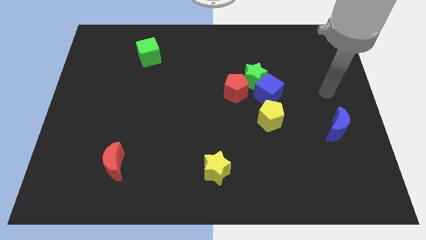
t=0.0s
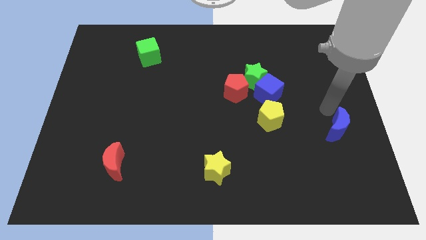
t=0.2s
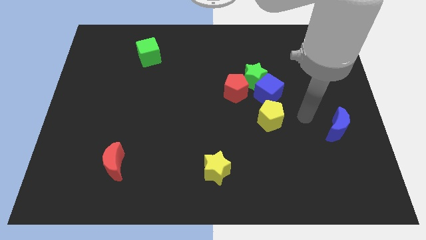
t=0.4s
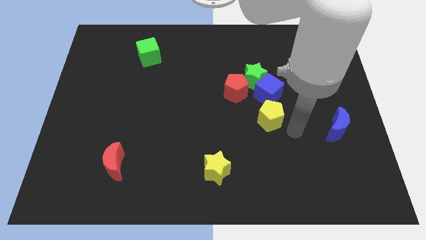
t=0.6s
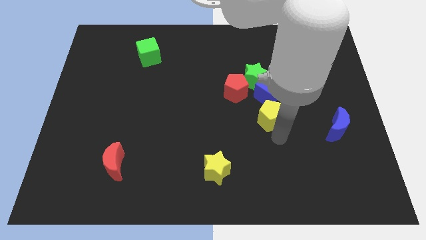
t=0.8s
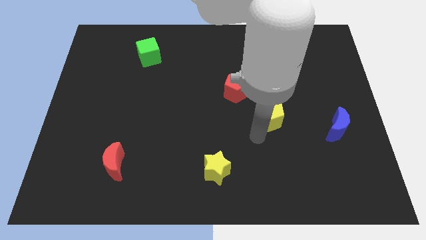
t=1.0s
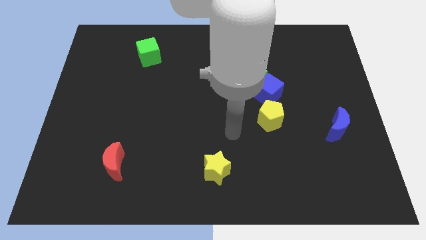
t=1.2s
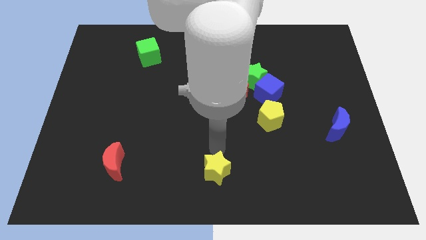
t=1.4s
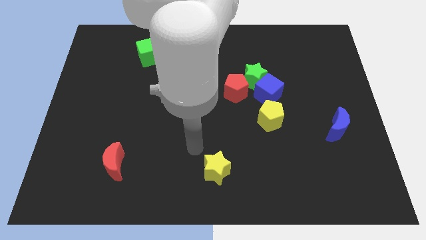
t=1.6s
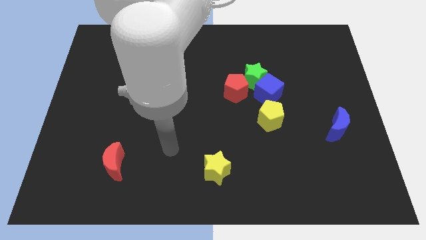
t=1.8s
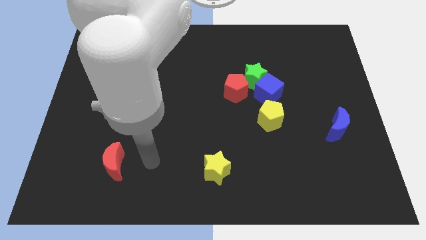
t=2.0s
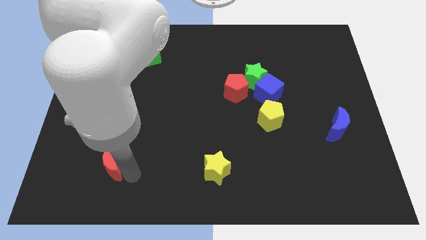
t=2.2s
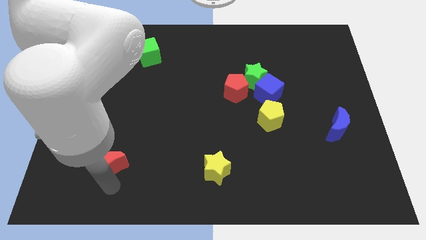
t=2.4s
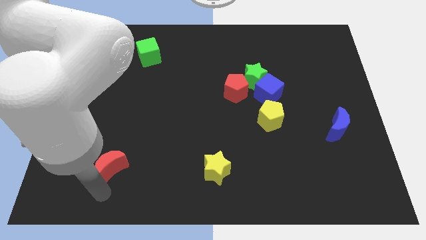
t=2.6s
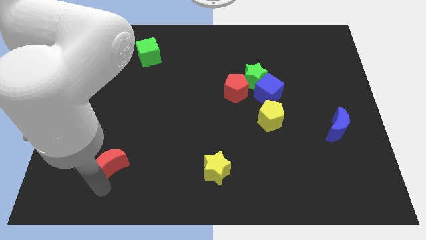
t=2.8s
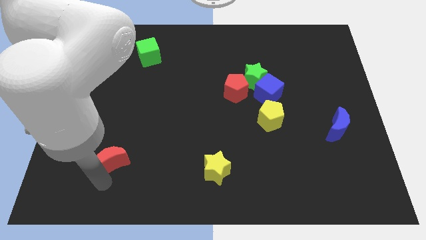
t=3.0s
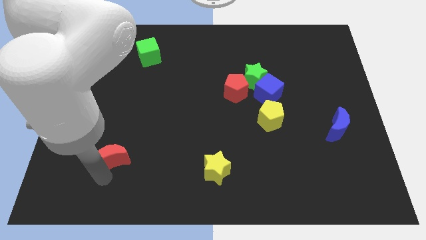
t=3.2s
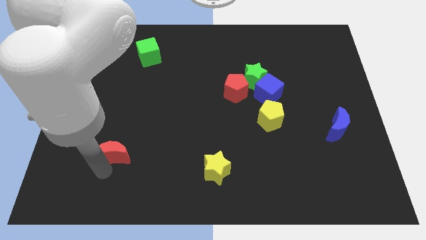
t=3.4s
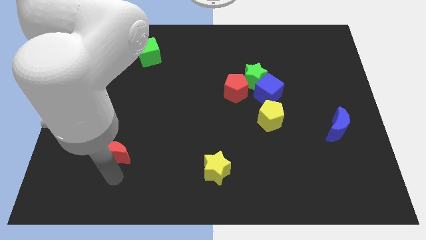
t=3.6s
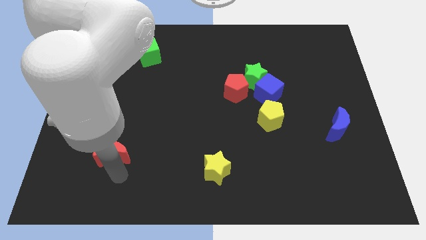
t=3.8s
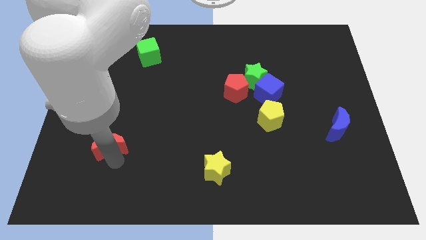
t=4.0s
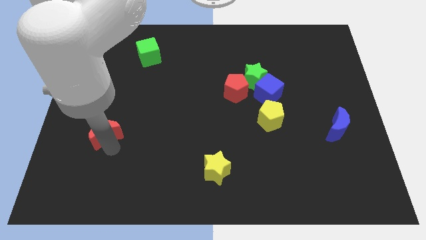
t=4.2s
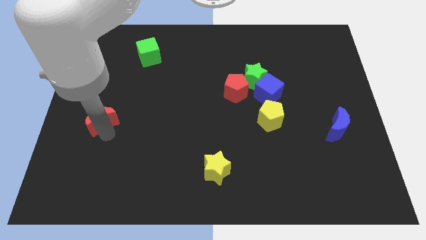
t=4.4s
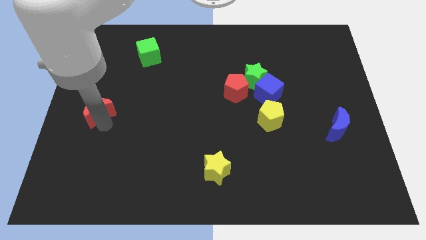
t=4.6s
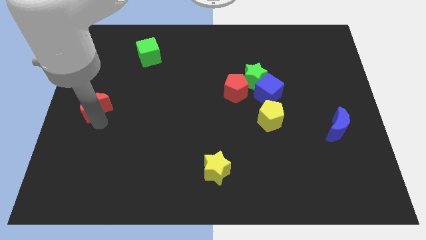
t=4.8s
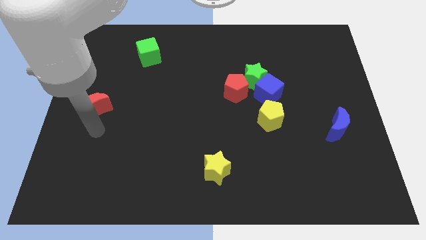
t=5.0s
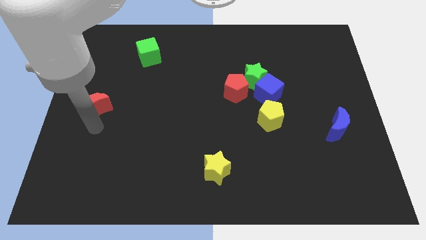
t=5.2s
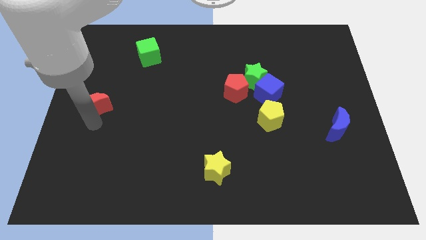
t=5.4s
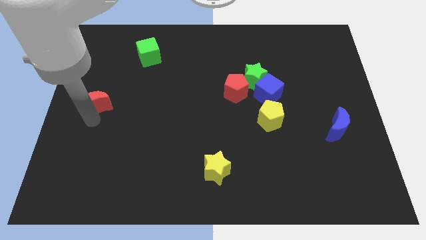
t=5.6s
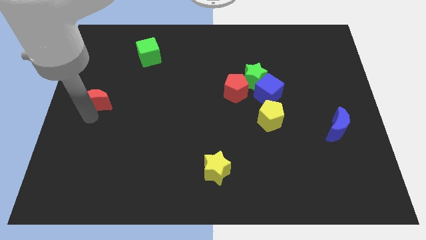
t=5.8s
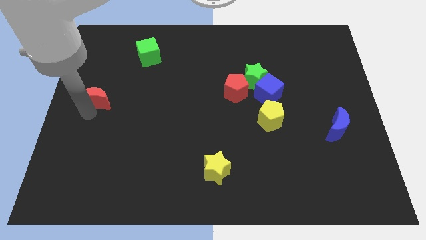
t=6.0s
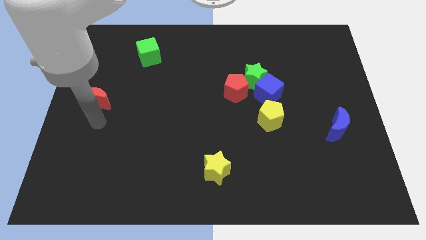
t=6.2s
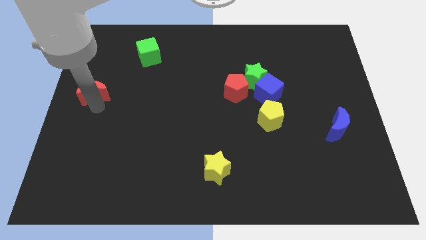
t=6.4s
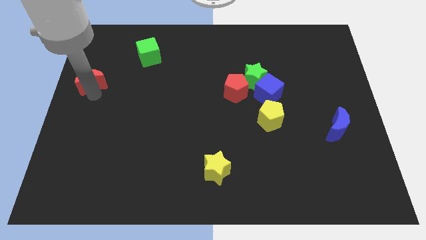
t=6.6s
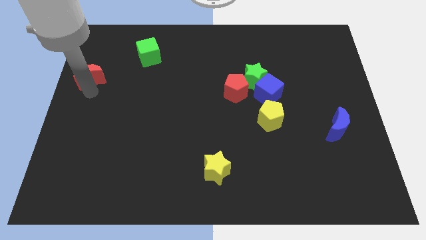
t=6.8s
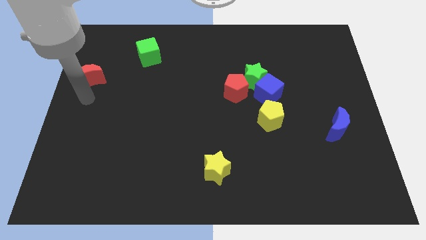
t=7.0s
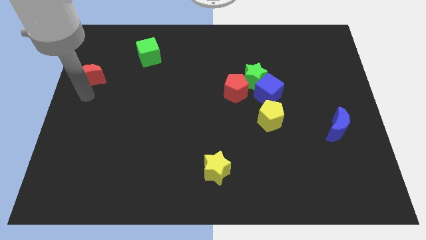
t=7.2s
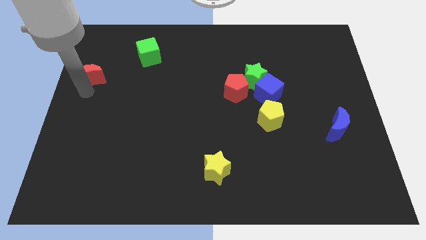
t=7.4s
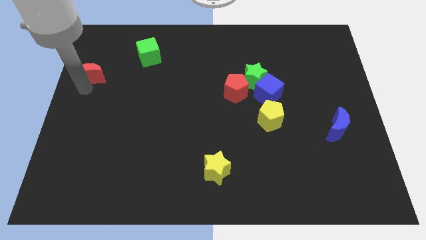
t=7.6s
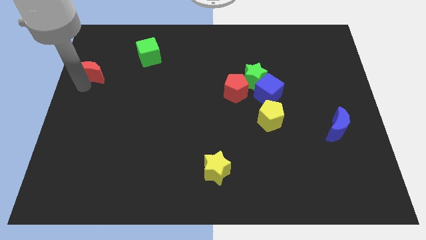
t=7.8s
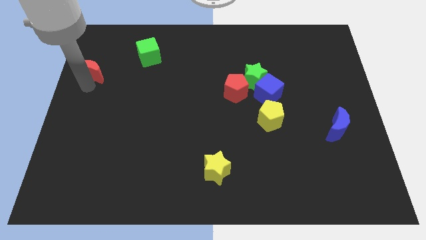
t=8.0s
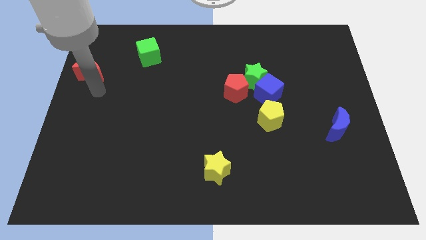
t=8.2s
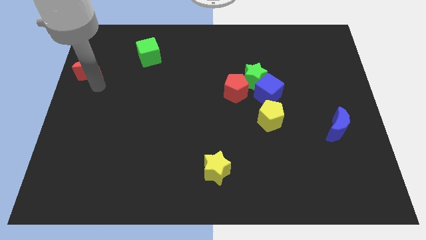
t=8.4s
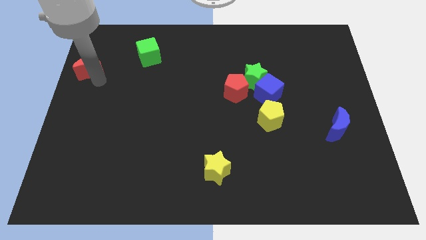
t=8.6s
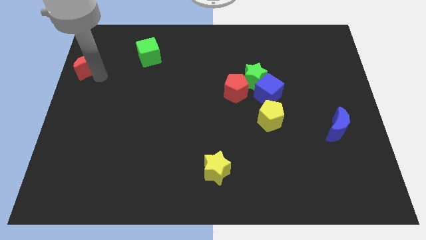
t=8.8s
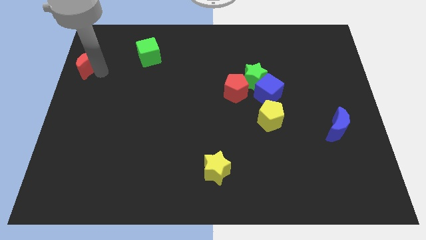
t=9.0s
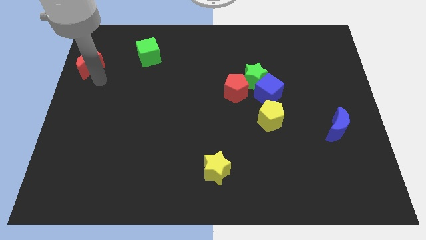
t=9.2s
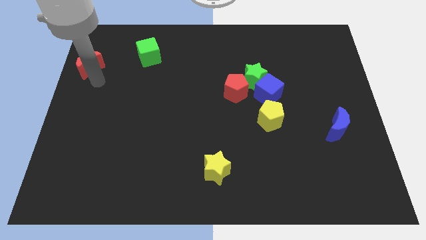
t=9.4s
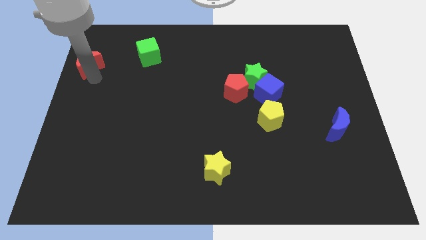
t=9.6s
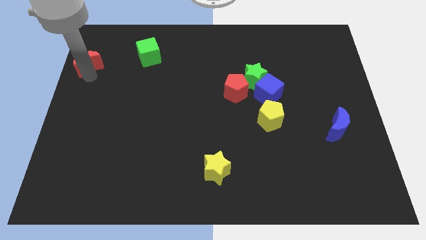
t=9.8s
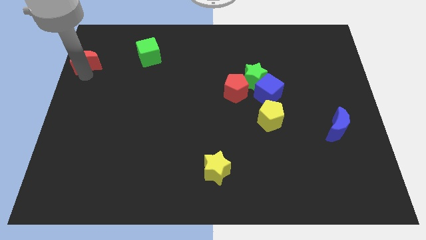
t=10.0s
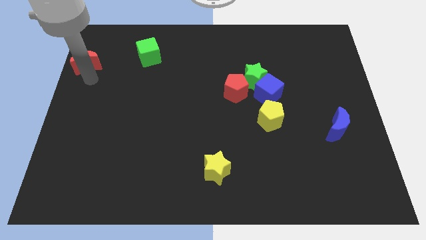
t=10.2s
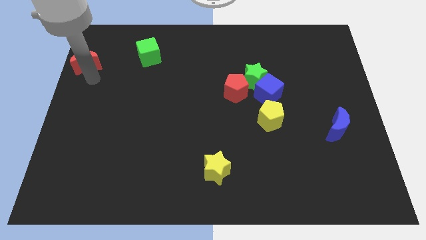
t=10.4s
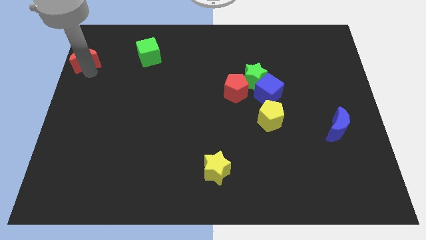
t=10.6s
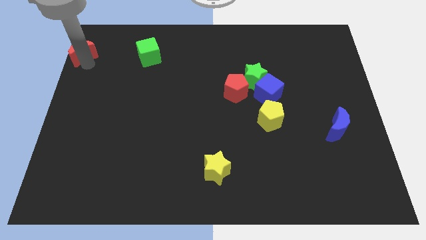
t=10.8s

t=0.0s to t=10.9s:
slide the red moon to the top left
